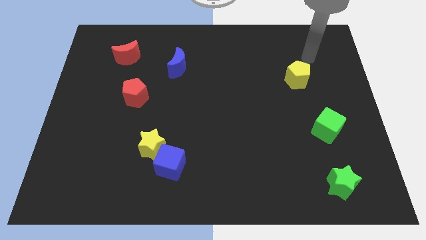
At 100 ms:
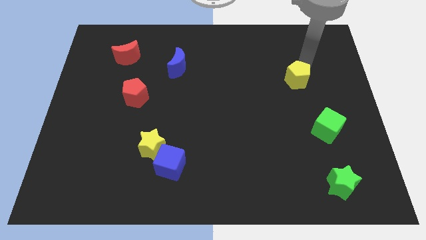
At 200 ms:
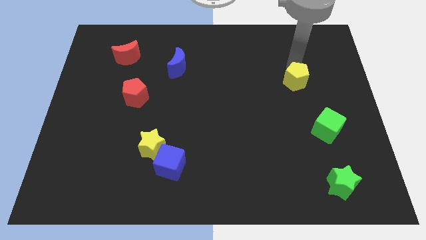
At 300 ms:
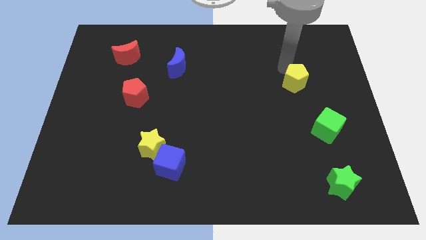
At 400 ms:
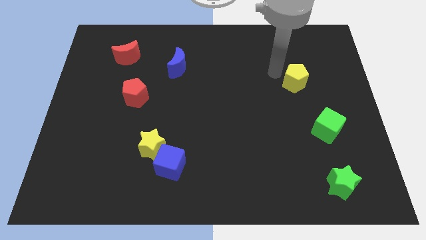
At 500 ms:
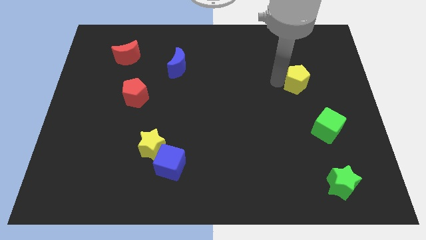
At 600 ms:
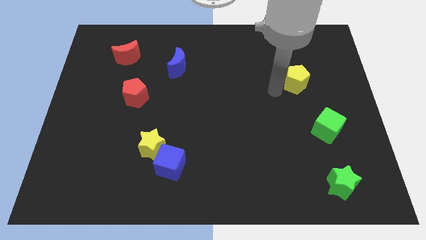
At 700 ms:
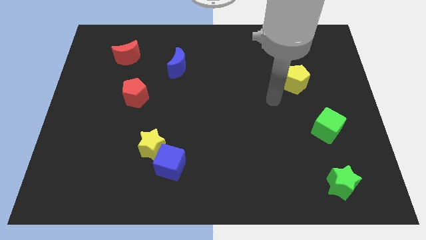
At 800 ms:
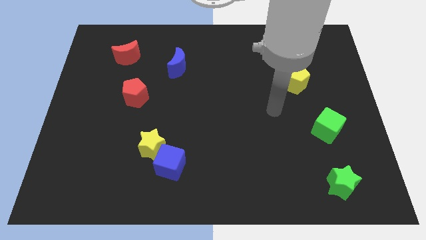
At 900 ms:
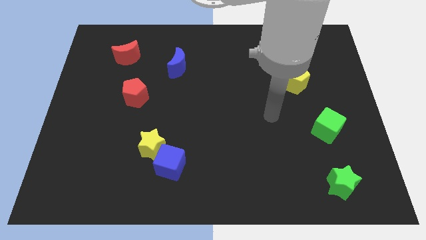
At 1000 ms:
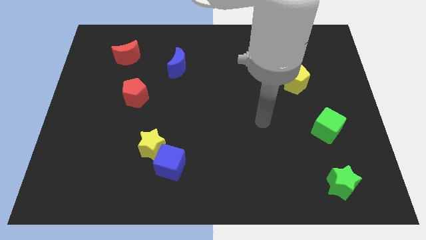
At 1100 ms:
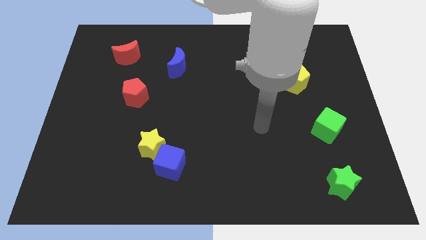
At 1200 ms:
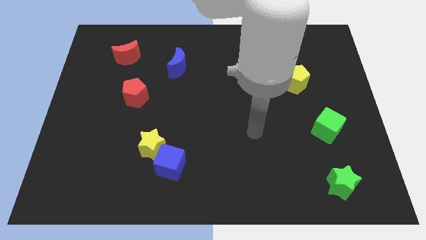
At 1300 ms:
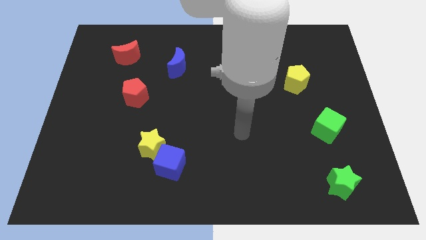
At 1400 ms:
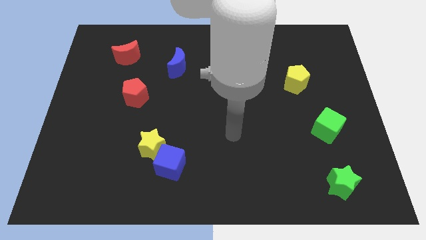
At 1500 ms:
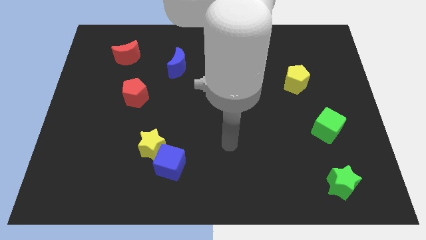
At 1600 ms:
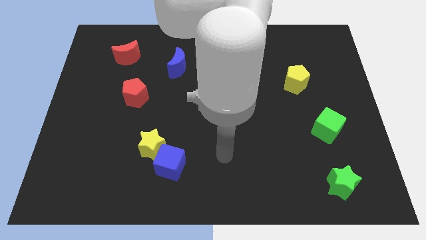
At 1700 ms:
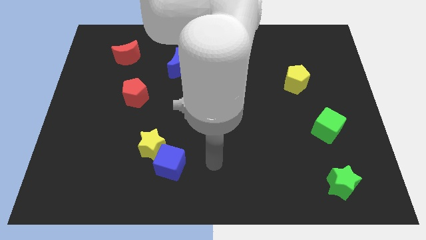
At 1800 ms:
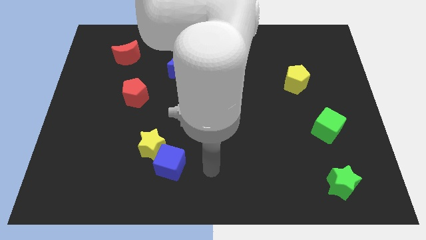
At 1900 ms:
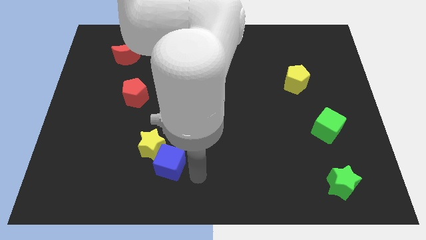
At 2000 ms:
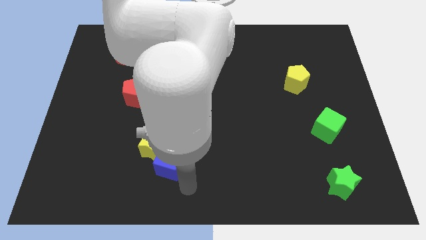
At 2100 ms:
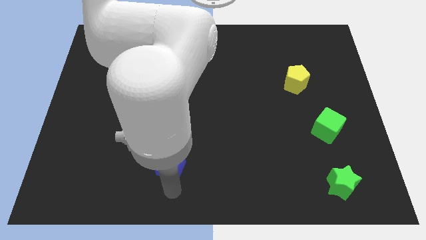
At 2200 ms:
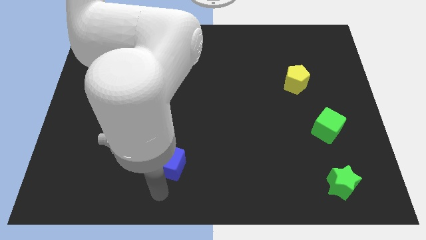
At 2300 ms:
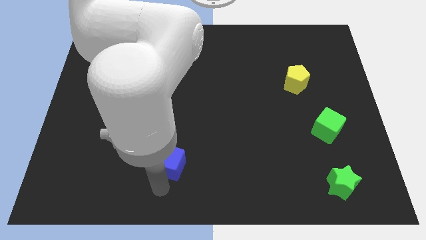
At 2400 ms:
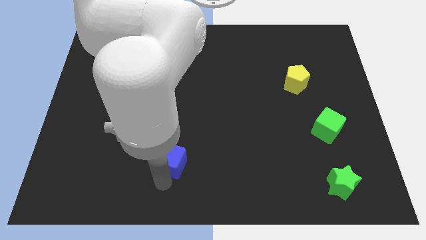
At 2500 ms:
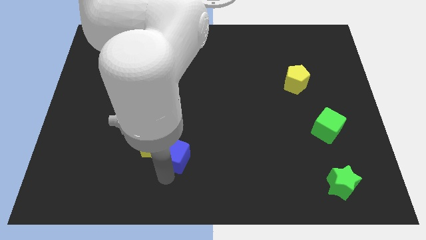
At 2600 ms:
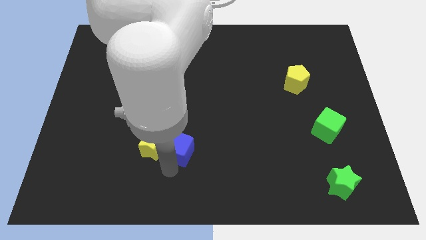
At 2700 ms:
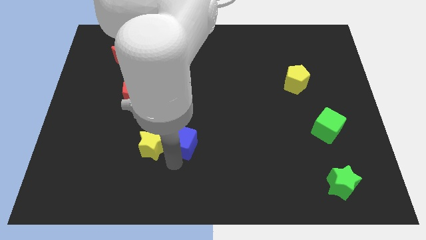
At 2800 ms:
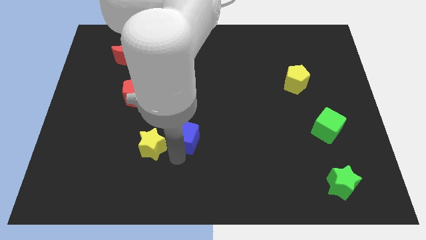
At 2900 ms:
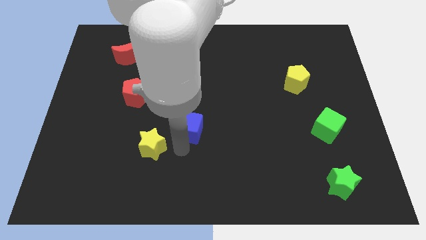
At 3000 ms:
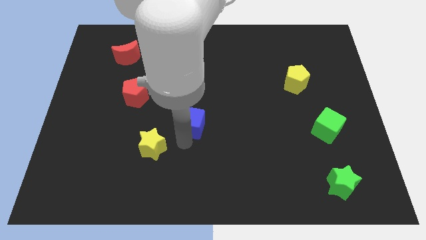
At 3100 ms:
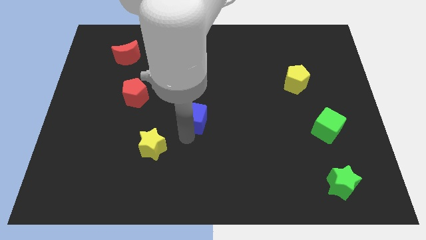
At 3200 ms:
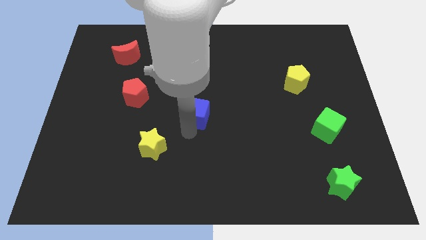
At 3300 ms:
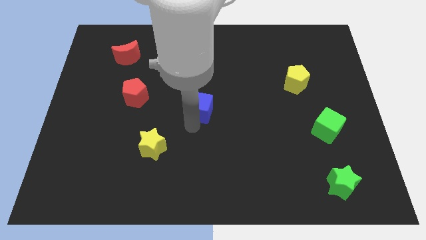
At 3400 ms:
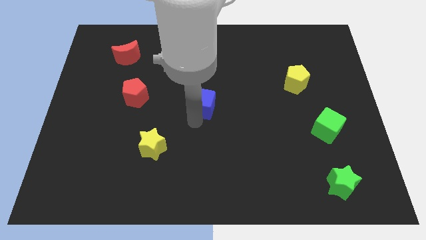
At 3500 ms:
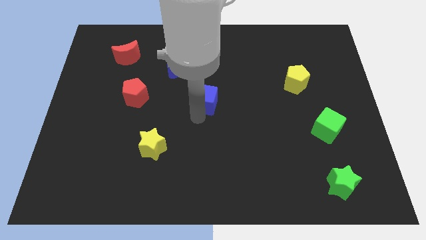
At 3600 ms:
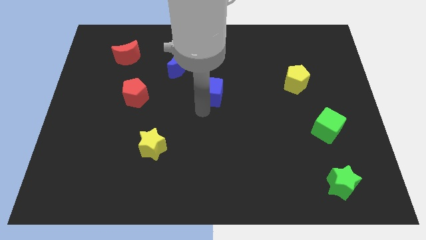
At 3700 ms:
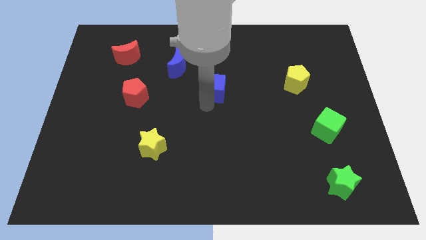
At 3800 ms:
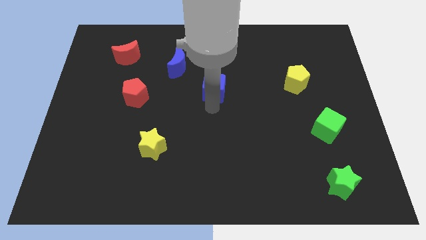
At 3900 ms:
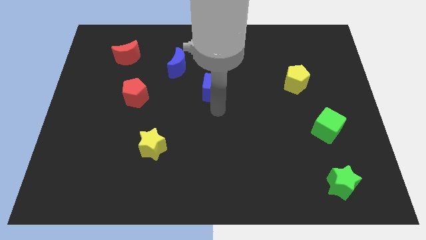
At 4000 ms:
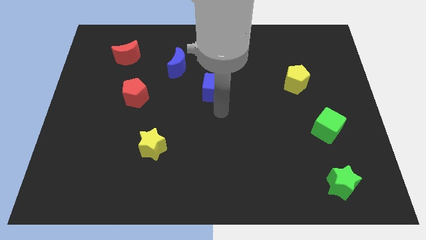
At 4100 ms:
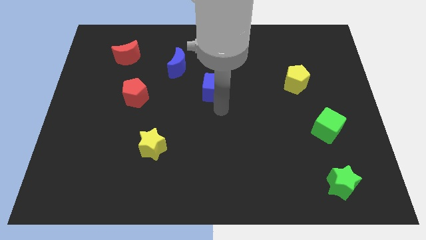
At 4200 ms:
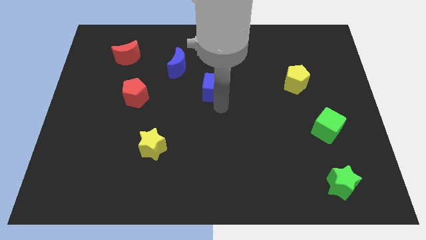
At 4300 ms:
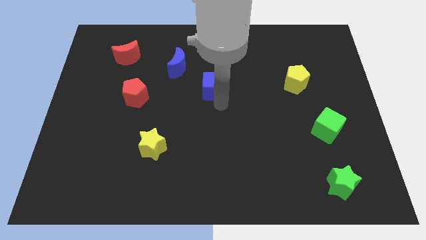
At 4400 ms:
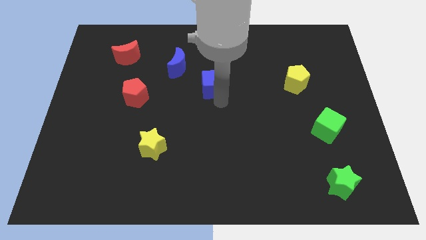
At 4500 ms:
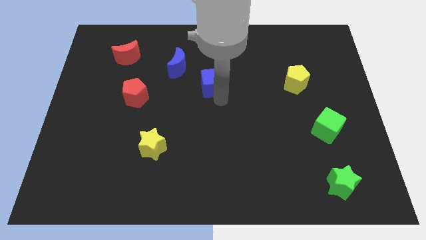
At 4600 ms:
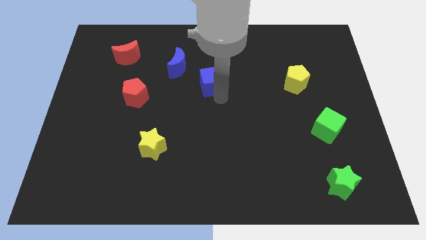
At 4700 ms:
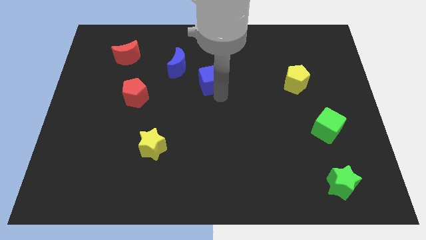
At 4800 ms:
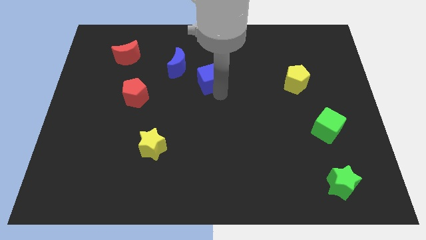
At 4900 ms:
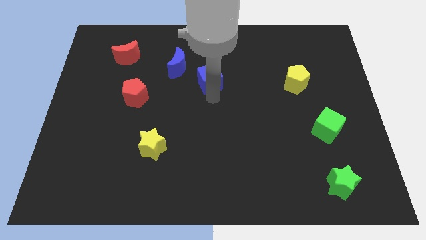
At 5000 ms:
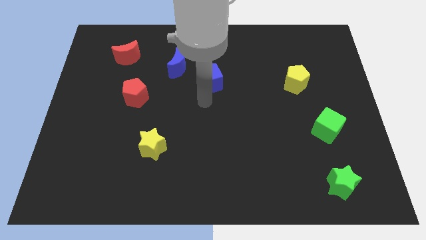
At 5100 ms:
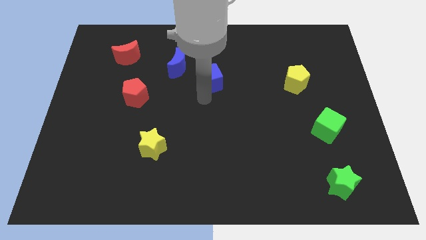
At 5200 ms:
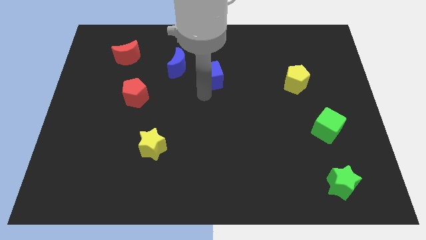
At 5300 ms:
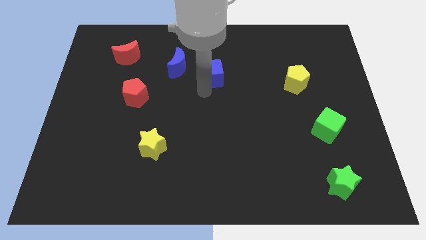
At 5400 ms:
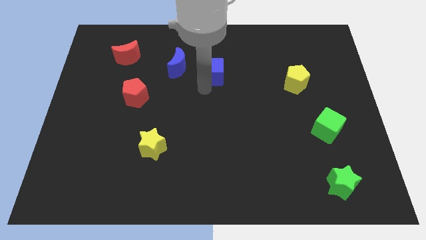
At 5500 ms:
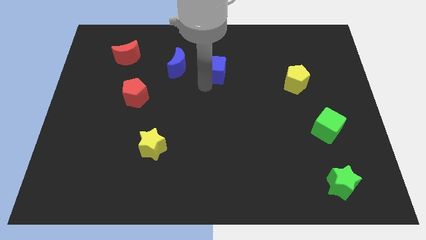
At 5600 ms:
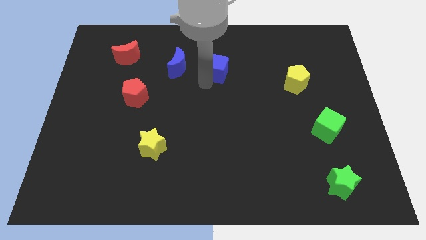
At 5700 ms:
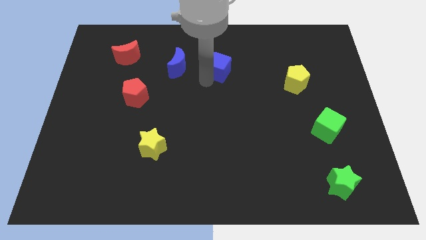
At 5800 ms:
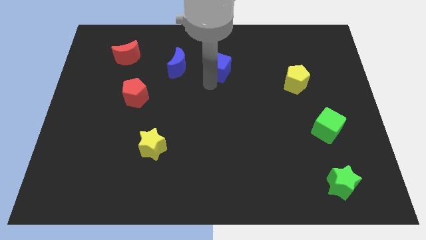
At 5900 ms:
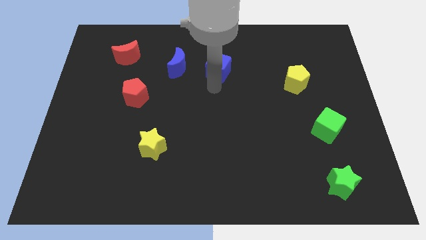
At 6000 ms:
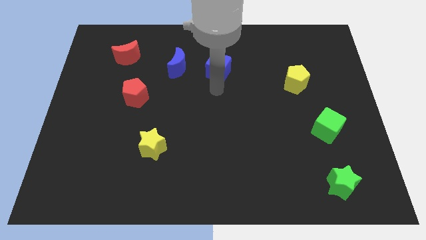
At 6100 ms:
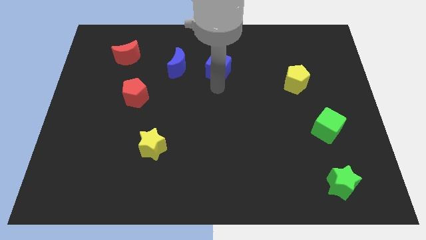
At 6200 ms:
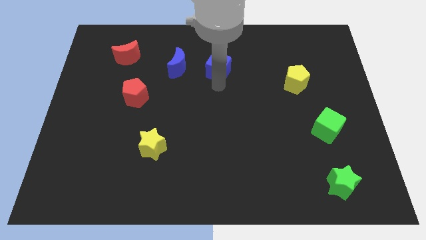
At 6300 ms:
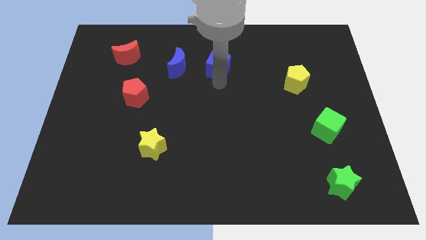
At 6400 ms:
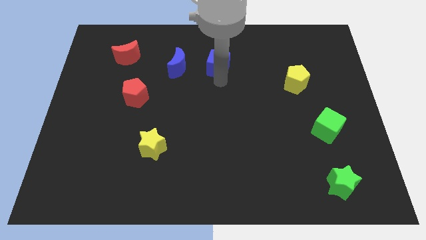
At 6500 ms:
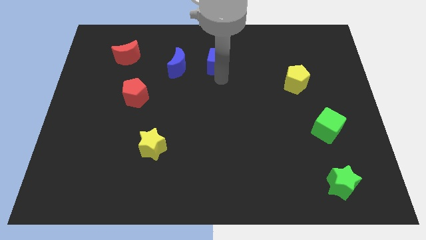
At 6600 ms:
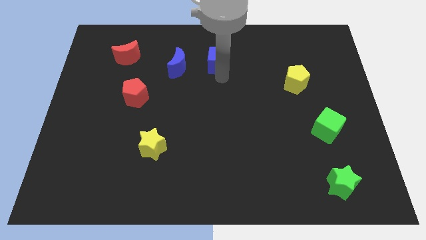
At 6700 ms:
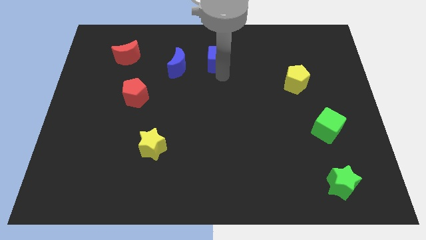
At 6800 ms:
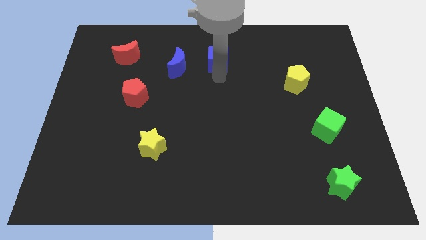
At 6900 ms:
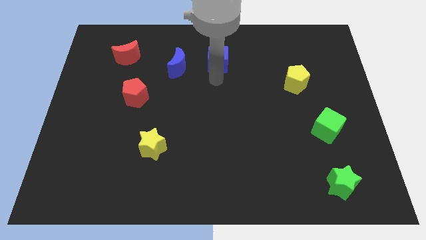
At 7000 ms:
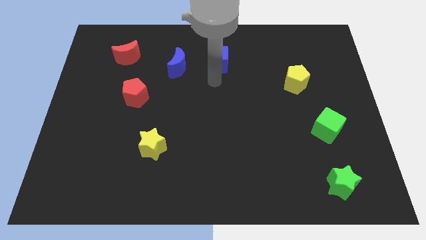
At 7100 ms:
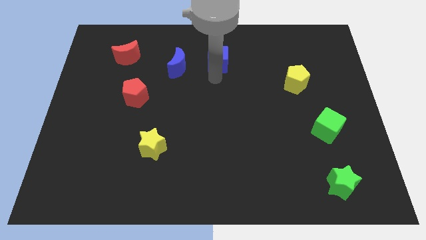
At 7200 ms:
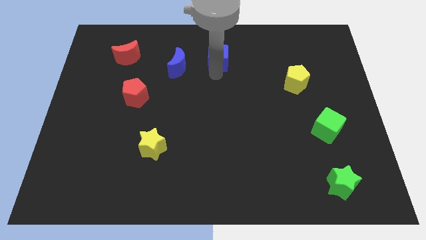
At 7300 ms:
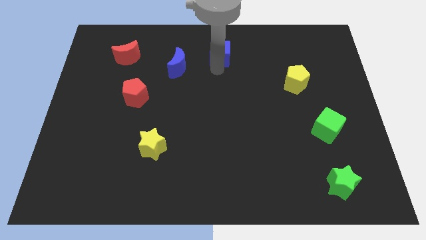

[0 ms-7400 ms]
push the blue cube to the towards your base
